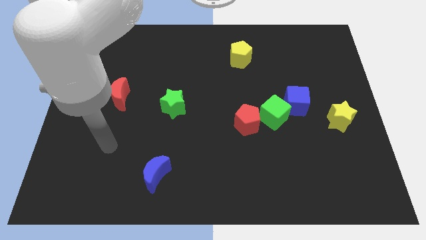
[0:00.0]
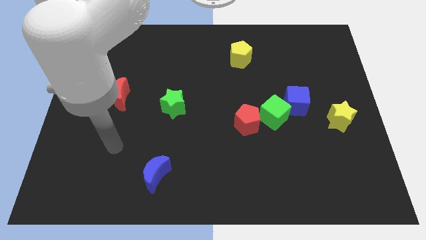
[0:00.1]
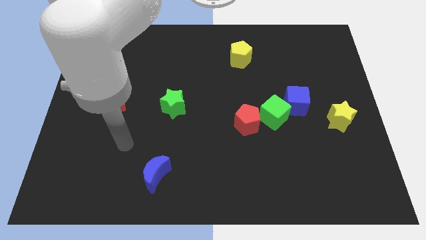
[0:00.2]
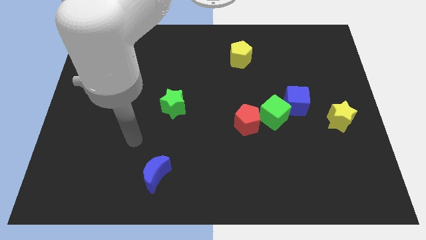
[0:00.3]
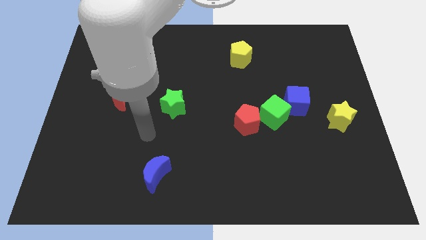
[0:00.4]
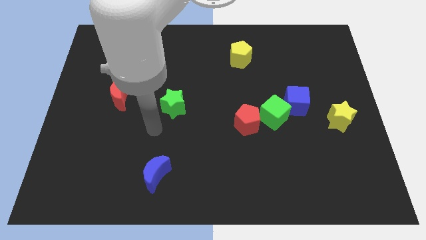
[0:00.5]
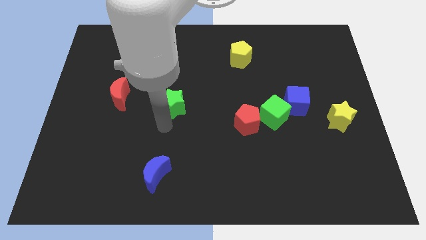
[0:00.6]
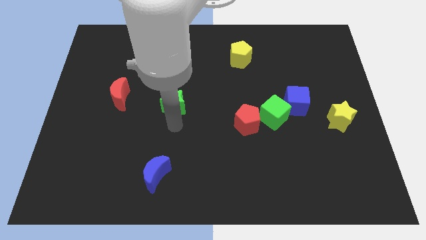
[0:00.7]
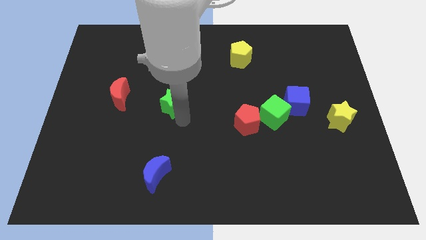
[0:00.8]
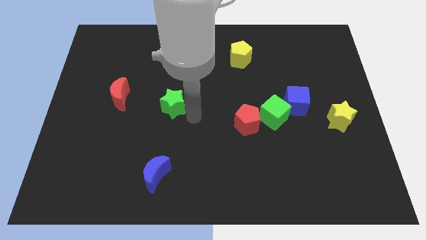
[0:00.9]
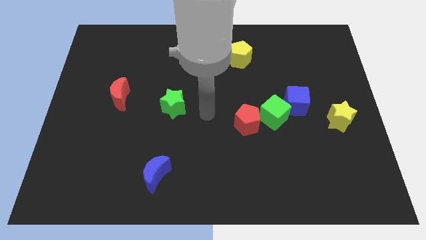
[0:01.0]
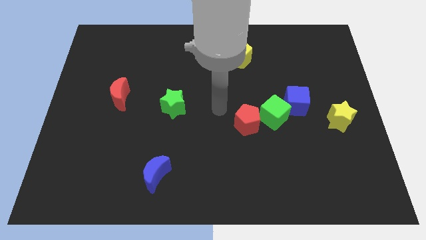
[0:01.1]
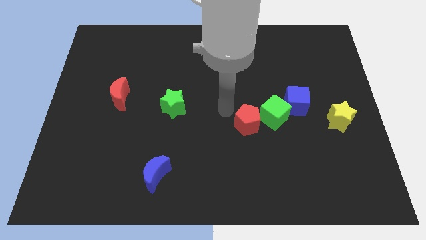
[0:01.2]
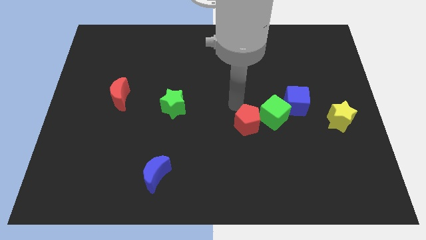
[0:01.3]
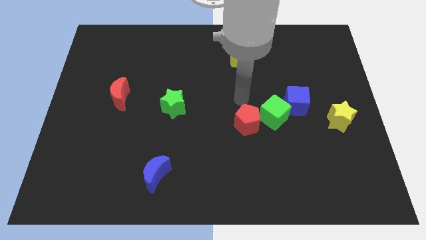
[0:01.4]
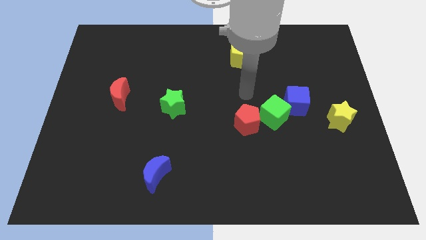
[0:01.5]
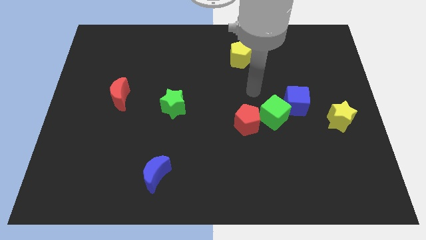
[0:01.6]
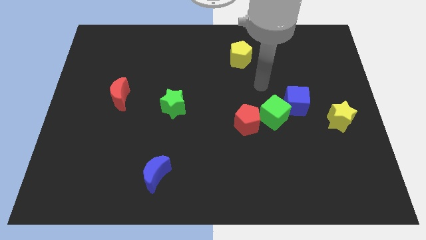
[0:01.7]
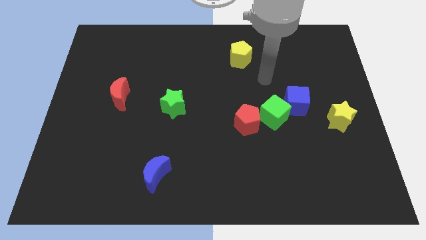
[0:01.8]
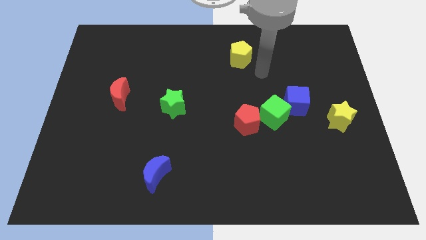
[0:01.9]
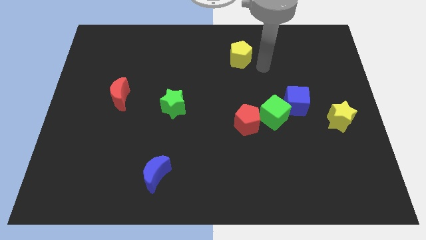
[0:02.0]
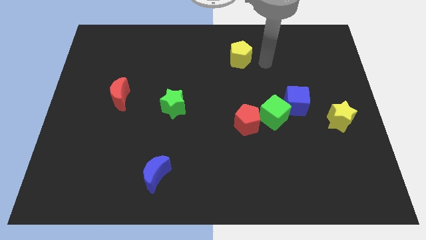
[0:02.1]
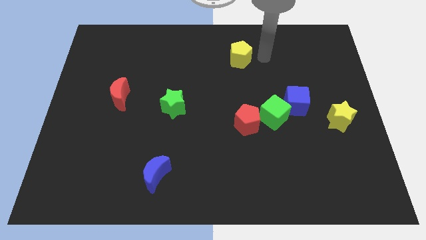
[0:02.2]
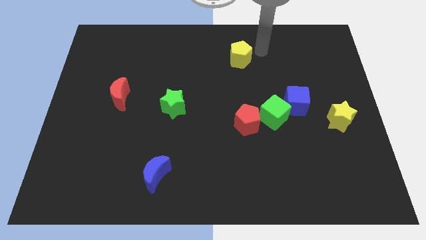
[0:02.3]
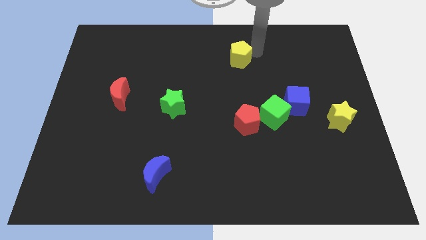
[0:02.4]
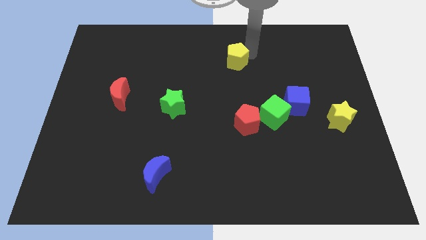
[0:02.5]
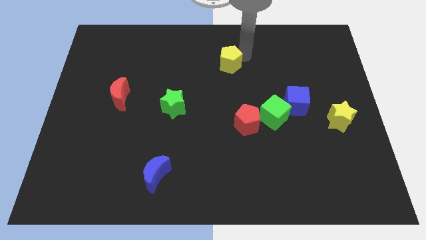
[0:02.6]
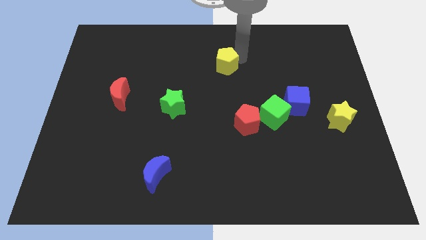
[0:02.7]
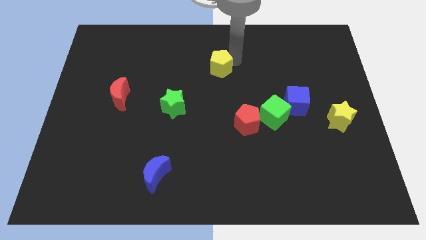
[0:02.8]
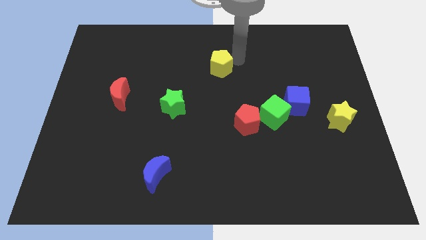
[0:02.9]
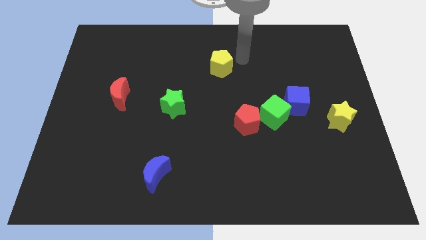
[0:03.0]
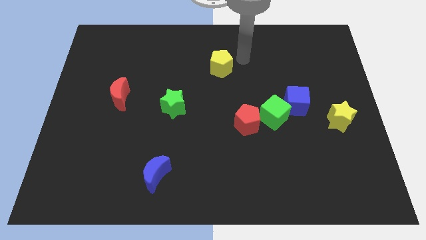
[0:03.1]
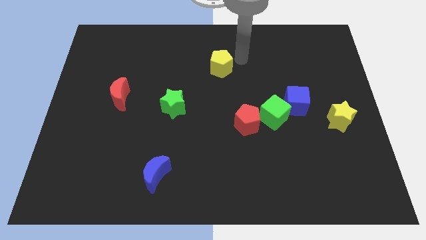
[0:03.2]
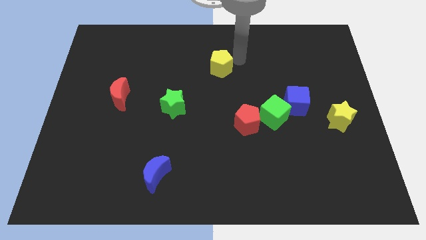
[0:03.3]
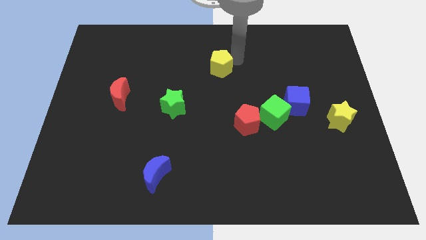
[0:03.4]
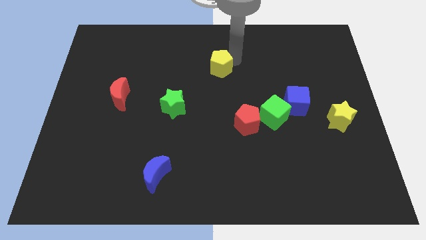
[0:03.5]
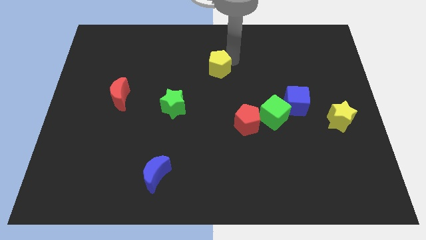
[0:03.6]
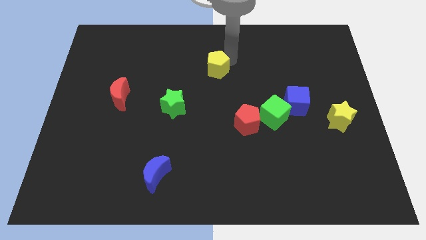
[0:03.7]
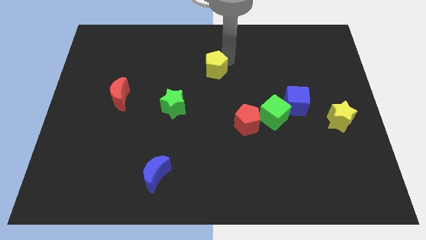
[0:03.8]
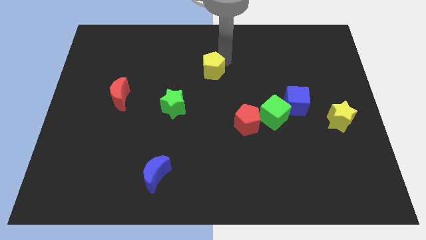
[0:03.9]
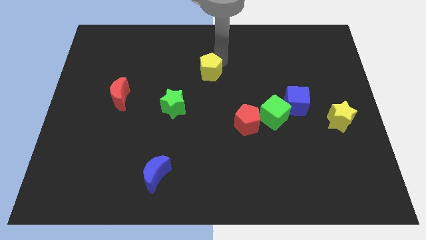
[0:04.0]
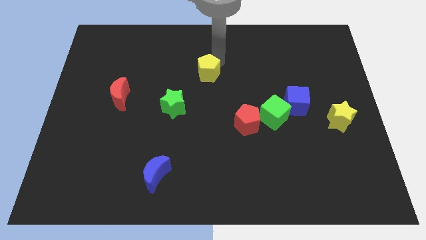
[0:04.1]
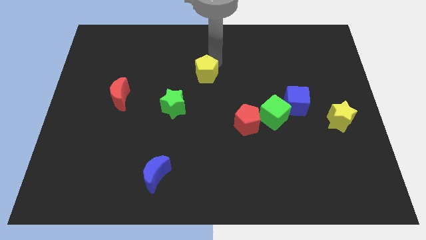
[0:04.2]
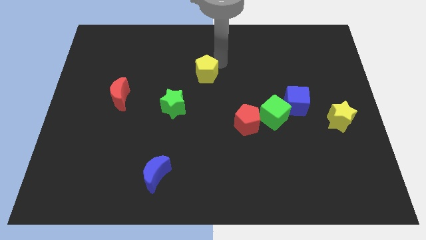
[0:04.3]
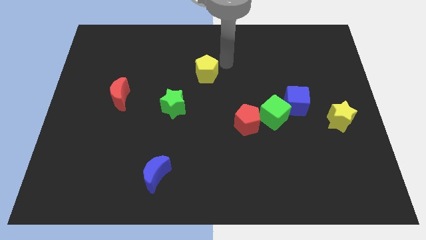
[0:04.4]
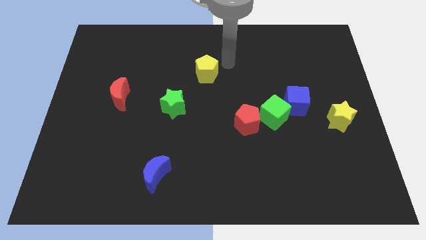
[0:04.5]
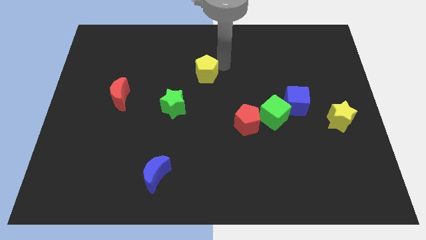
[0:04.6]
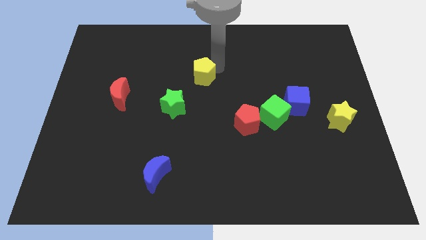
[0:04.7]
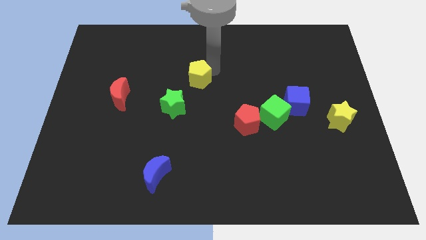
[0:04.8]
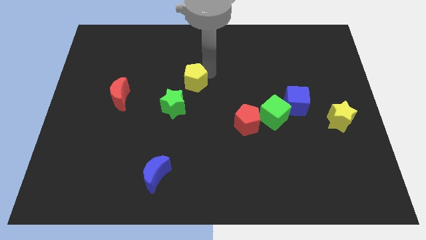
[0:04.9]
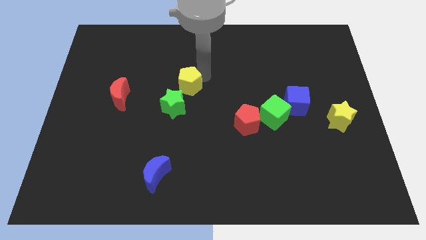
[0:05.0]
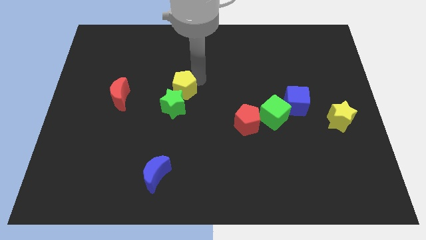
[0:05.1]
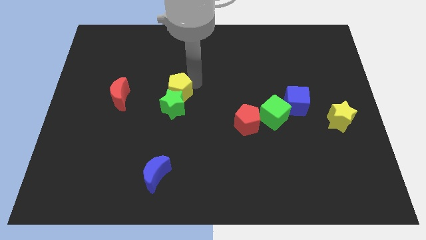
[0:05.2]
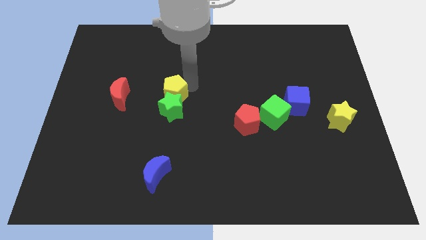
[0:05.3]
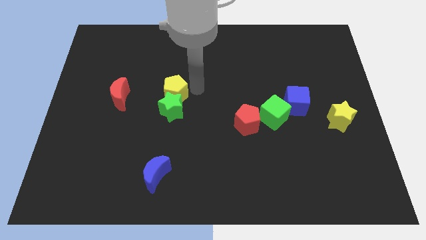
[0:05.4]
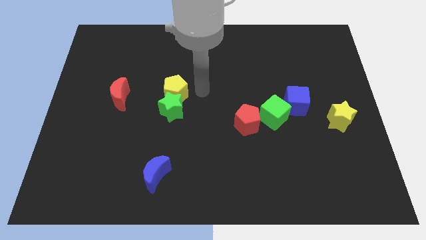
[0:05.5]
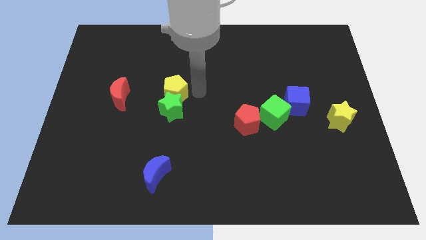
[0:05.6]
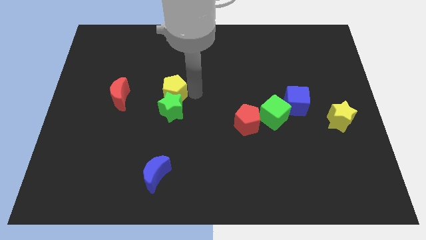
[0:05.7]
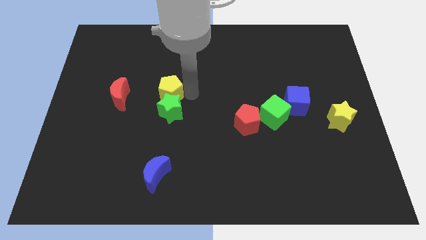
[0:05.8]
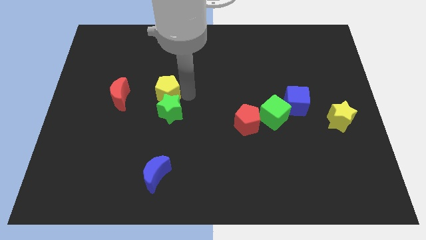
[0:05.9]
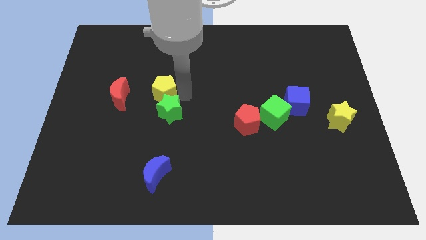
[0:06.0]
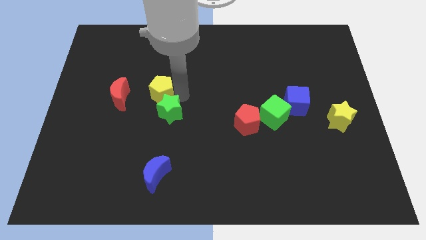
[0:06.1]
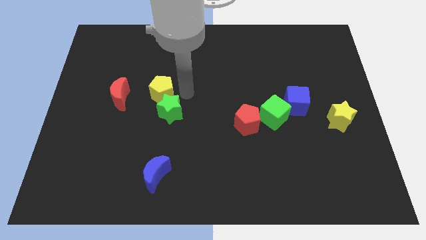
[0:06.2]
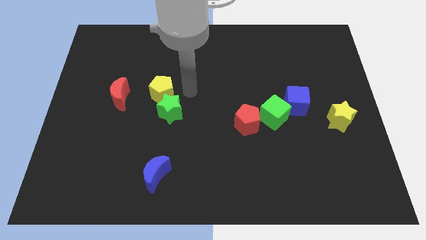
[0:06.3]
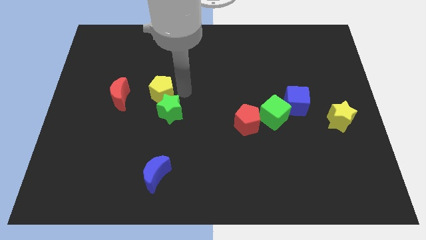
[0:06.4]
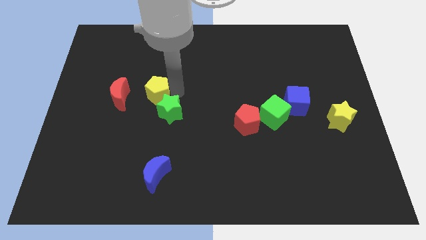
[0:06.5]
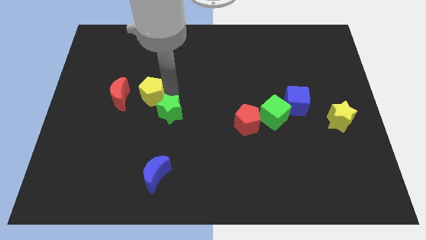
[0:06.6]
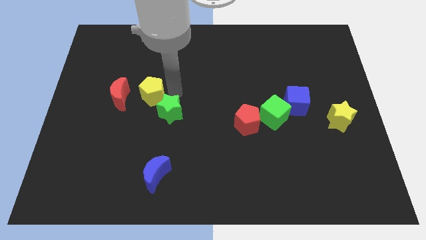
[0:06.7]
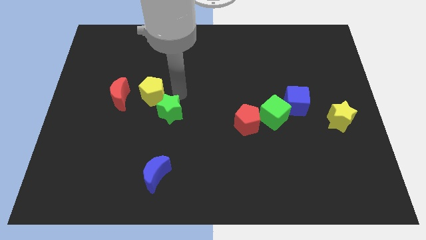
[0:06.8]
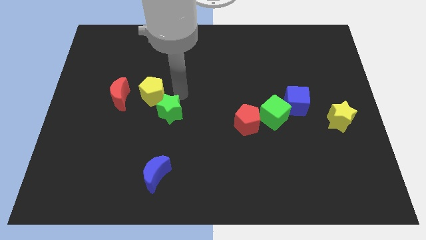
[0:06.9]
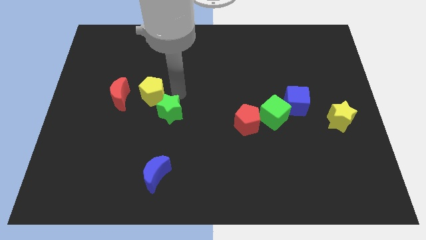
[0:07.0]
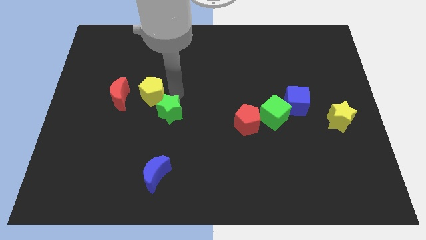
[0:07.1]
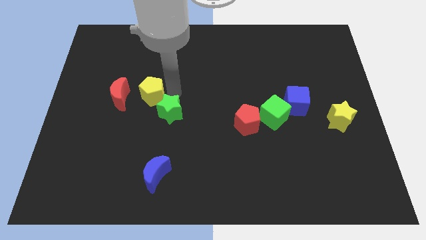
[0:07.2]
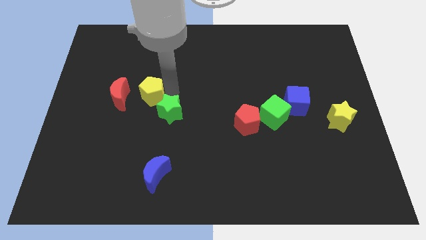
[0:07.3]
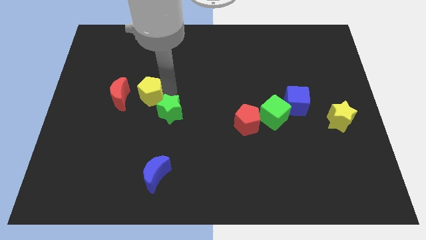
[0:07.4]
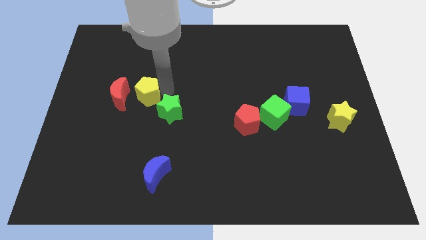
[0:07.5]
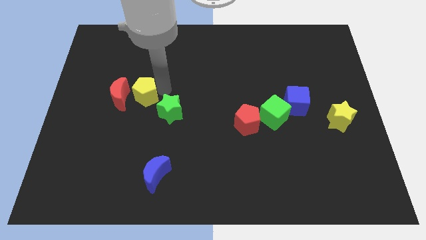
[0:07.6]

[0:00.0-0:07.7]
put the yellow pentagon close to the red moon
